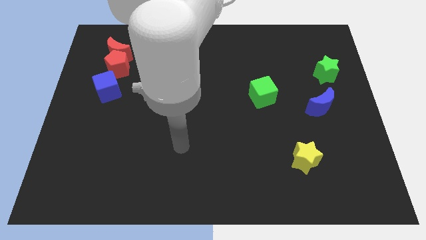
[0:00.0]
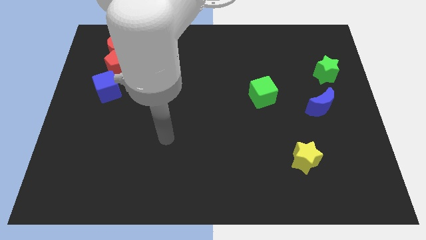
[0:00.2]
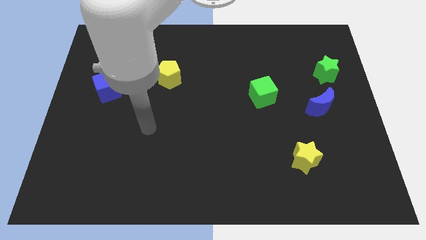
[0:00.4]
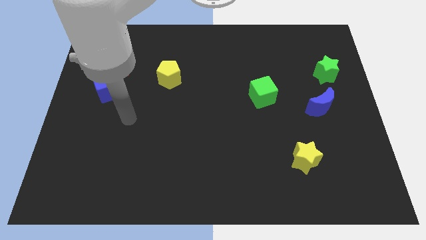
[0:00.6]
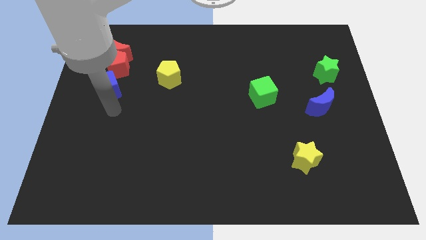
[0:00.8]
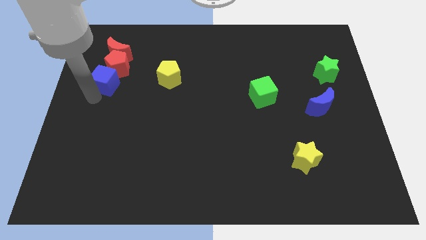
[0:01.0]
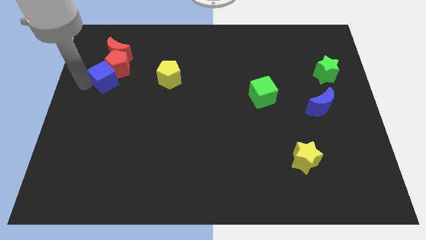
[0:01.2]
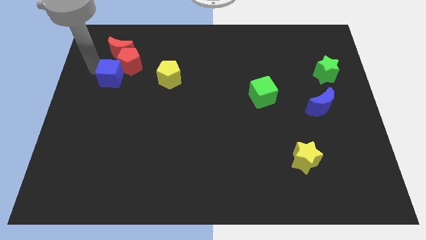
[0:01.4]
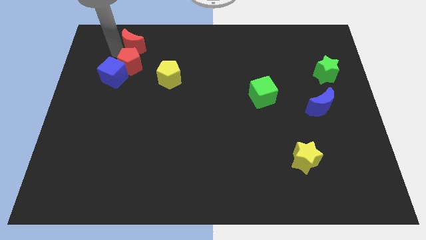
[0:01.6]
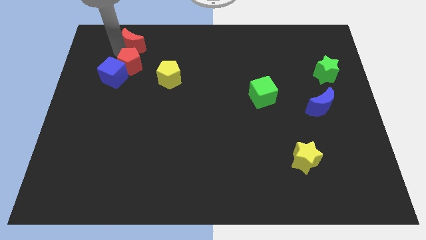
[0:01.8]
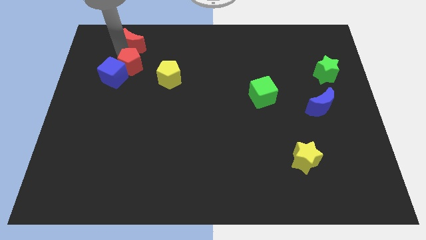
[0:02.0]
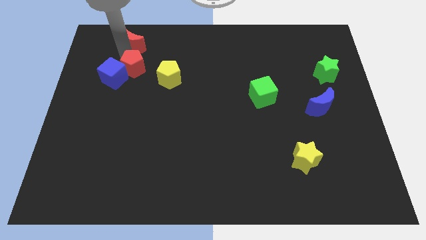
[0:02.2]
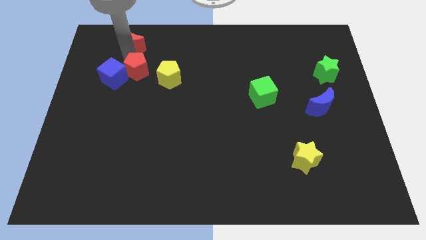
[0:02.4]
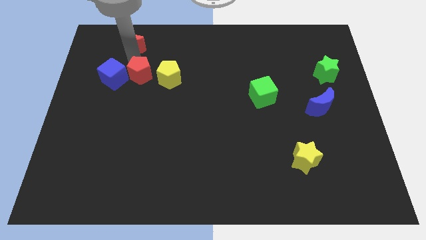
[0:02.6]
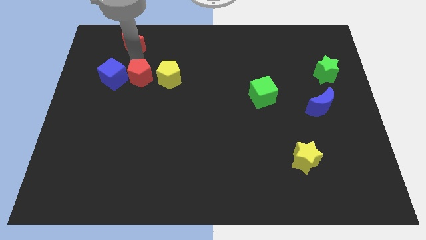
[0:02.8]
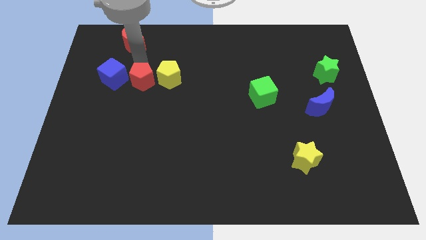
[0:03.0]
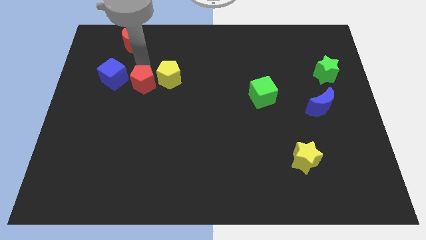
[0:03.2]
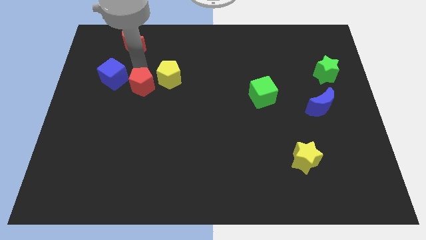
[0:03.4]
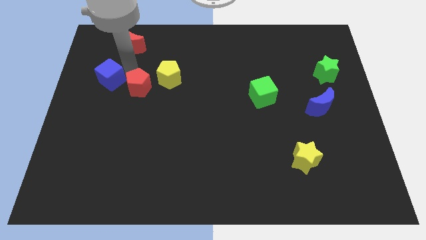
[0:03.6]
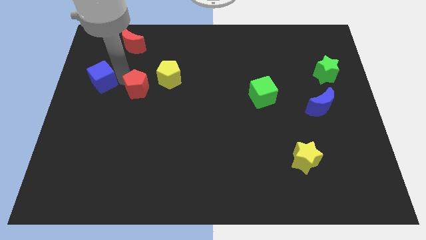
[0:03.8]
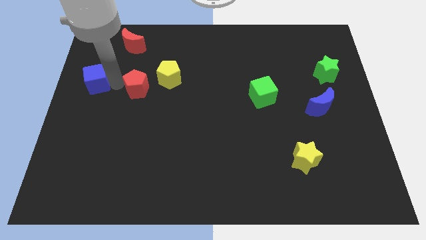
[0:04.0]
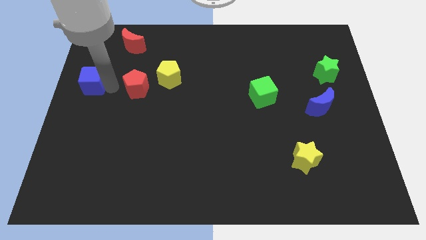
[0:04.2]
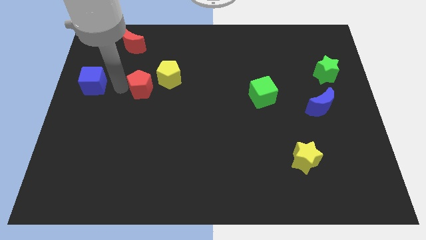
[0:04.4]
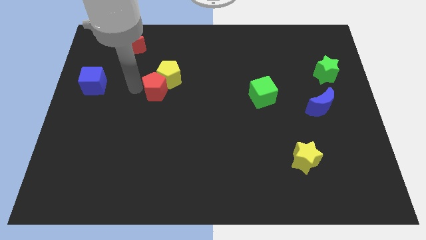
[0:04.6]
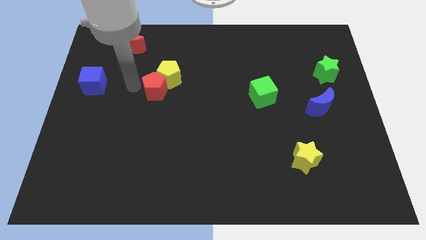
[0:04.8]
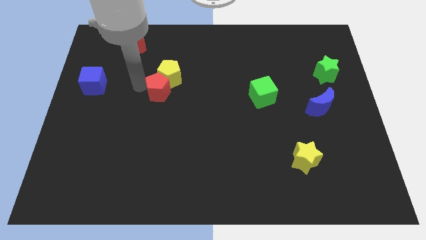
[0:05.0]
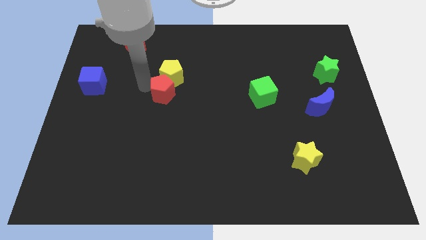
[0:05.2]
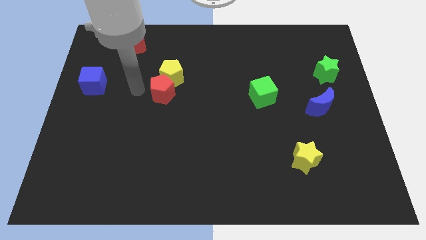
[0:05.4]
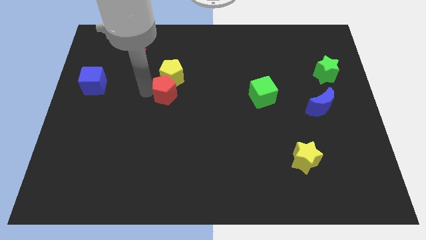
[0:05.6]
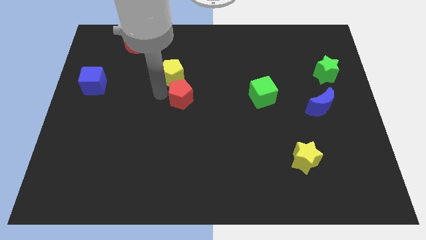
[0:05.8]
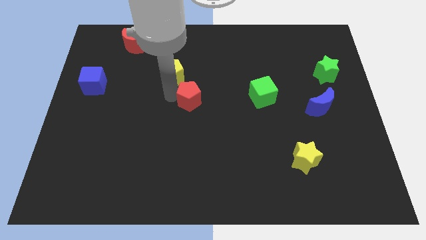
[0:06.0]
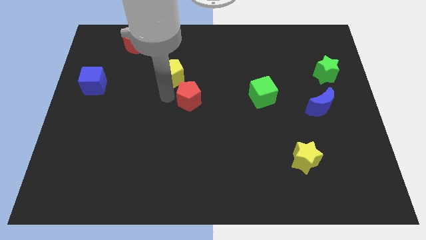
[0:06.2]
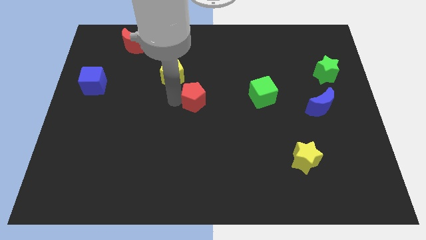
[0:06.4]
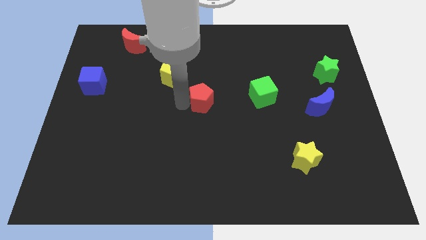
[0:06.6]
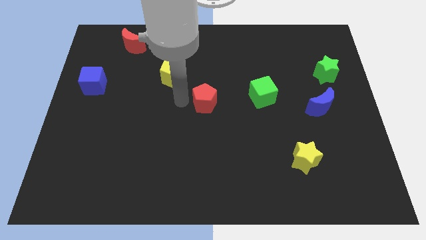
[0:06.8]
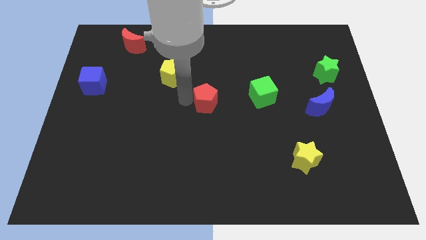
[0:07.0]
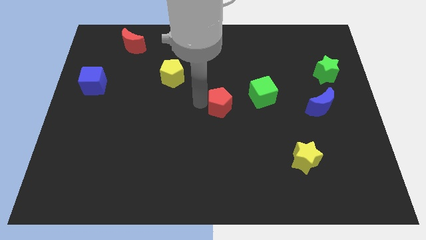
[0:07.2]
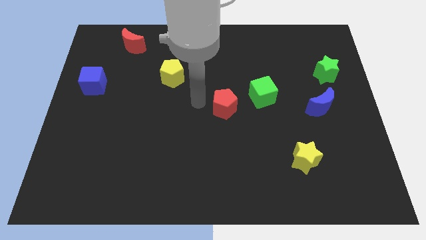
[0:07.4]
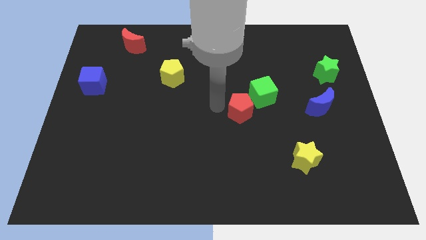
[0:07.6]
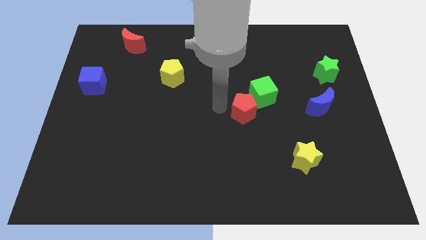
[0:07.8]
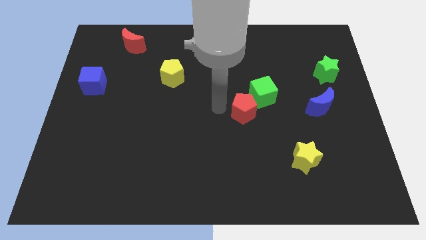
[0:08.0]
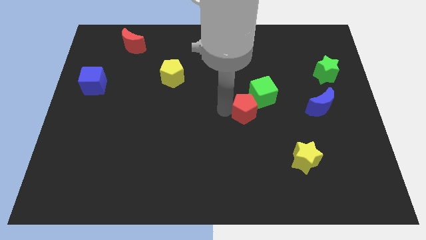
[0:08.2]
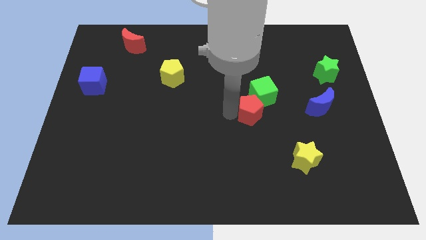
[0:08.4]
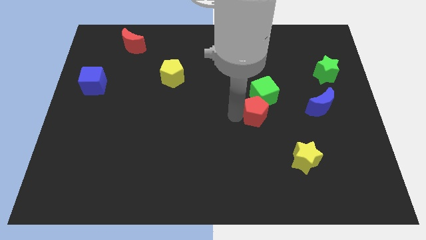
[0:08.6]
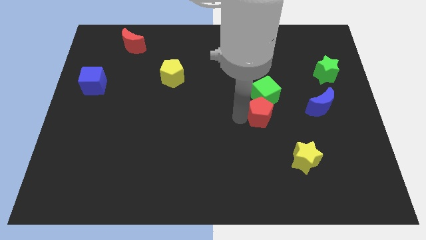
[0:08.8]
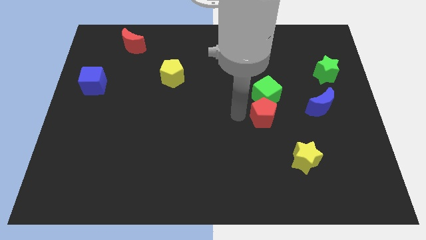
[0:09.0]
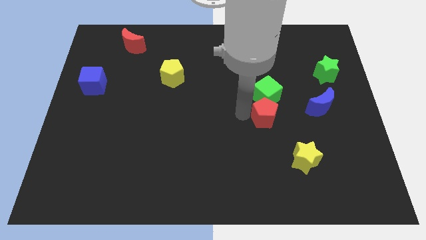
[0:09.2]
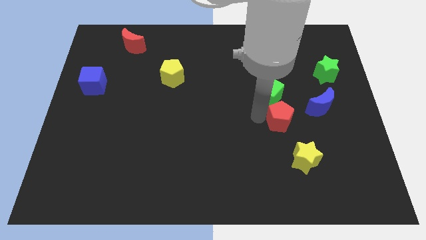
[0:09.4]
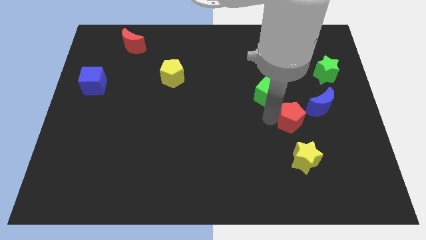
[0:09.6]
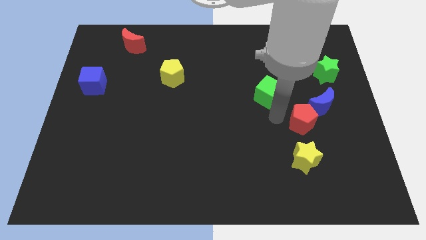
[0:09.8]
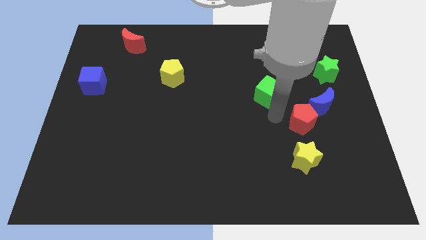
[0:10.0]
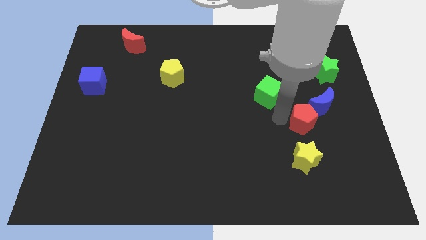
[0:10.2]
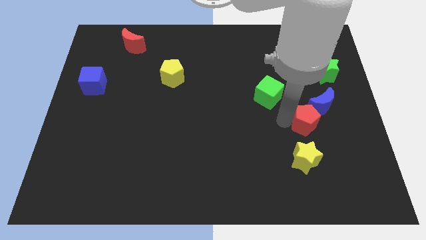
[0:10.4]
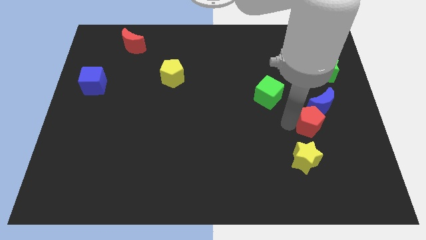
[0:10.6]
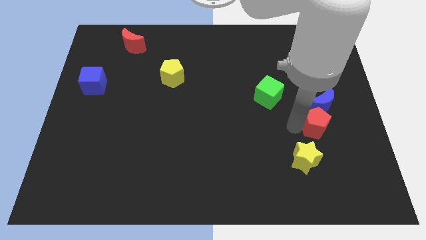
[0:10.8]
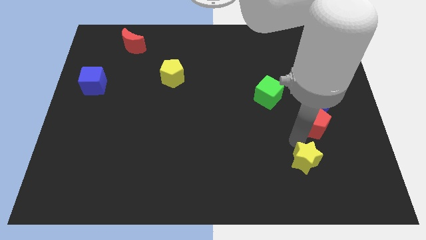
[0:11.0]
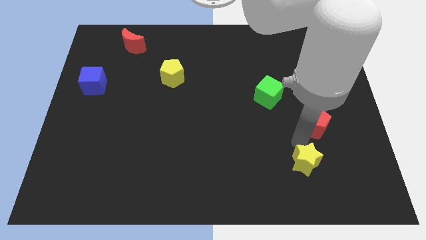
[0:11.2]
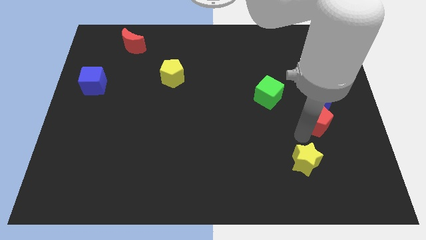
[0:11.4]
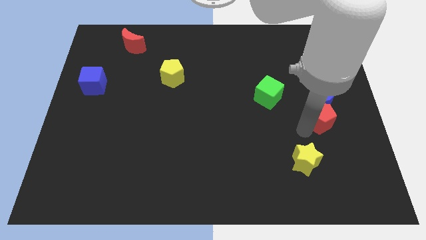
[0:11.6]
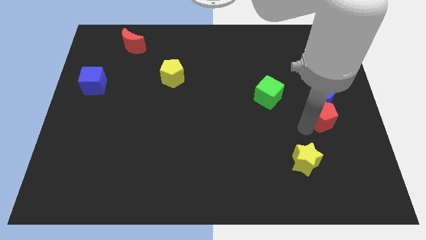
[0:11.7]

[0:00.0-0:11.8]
put the red pentagon below the green star

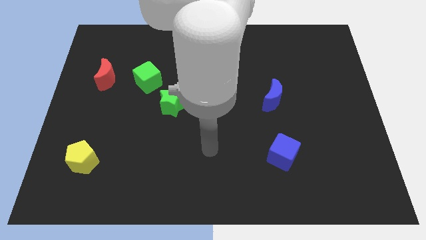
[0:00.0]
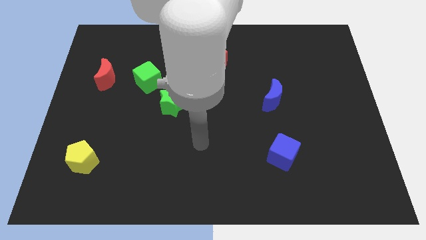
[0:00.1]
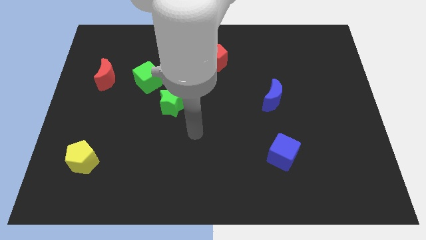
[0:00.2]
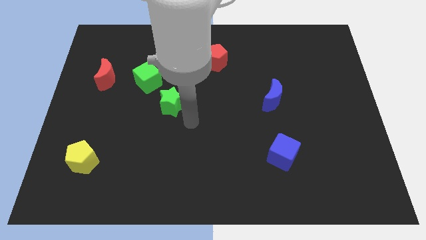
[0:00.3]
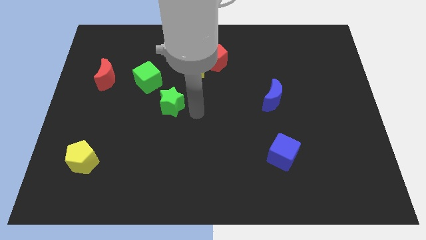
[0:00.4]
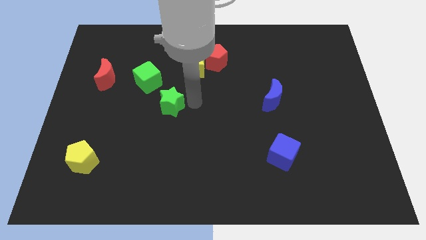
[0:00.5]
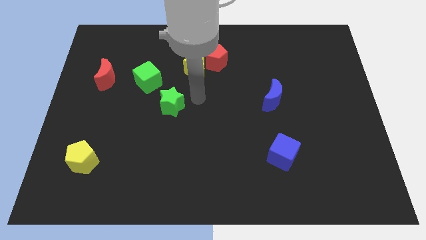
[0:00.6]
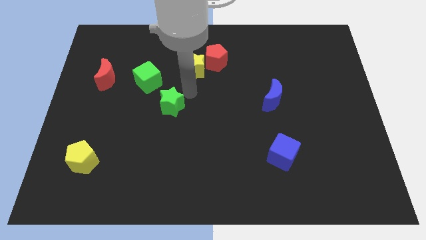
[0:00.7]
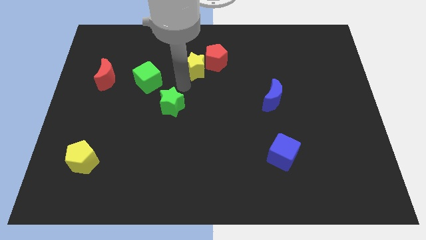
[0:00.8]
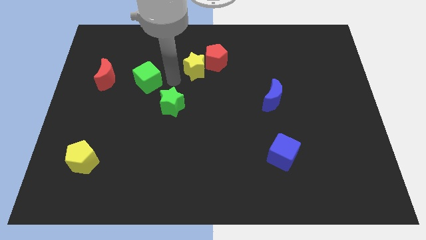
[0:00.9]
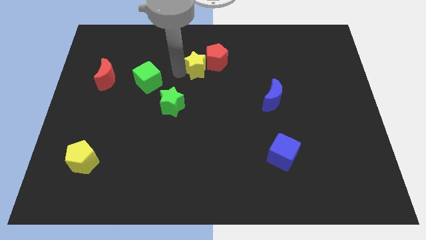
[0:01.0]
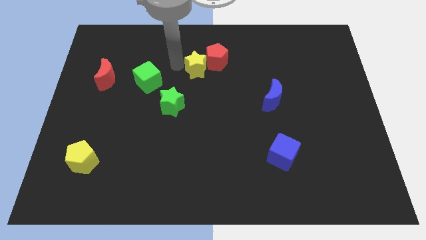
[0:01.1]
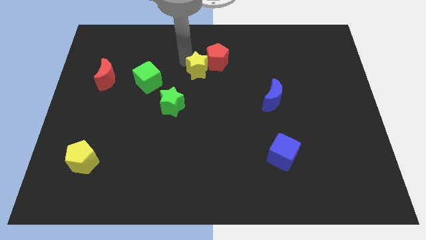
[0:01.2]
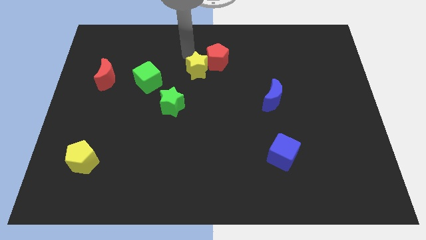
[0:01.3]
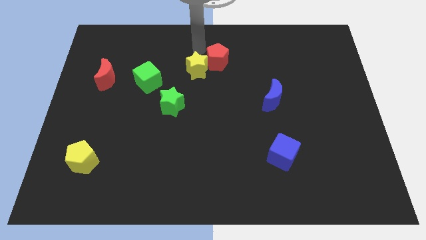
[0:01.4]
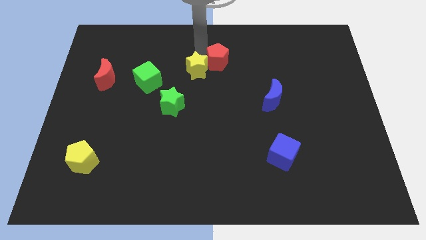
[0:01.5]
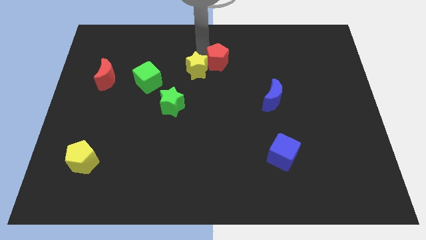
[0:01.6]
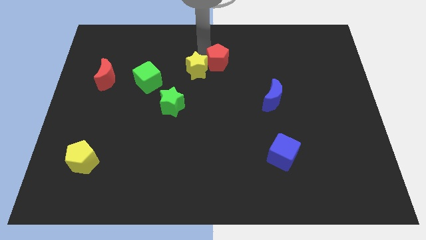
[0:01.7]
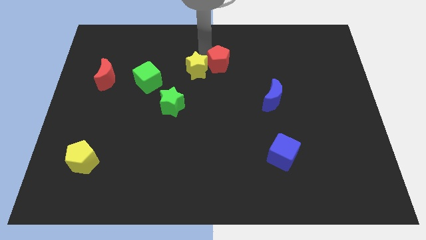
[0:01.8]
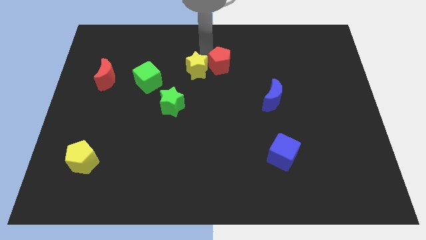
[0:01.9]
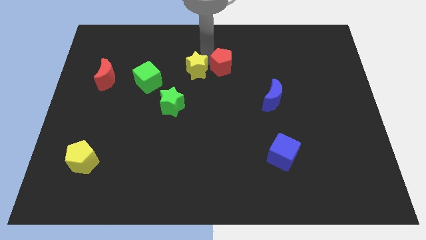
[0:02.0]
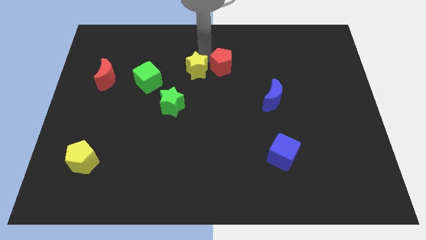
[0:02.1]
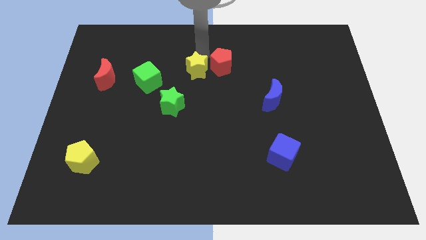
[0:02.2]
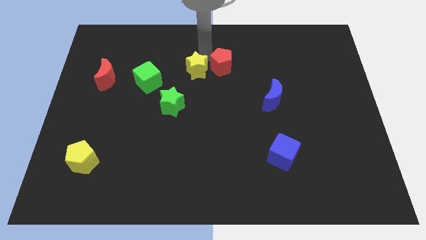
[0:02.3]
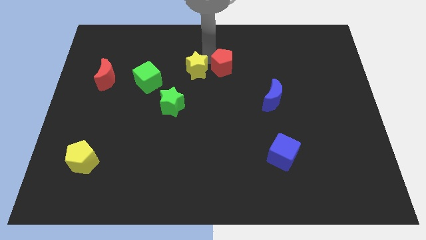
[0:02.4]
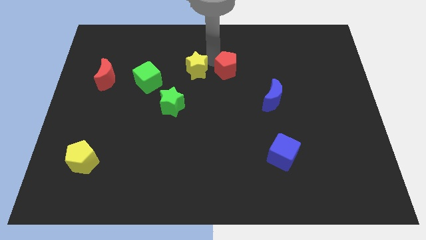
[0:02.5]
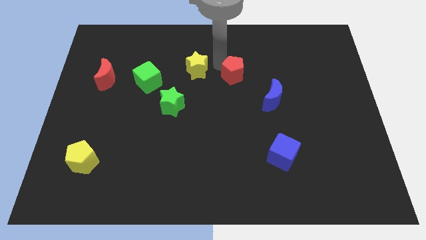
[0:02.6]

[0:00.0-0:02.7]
move the red pentagon to the top left side of the blue moon
